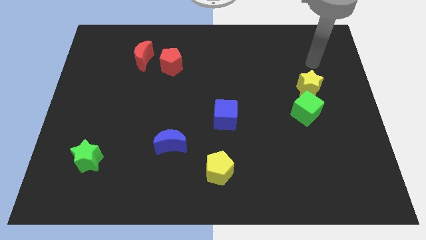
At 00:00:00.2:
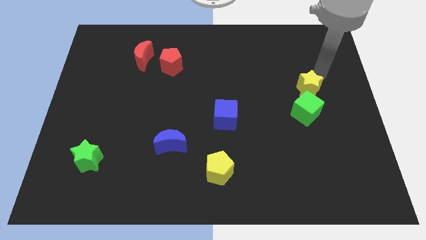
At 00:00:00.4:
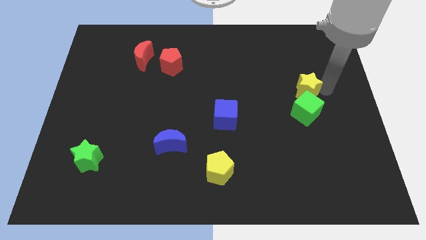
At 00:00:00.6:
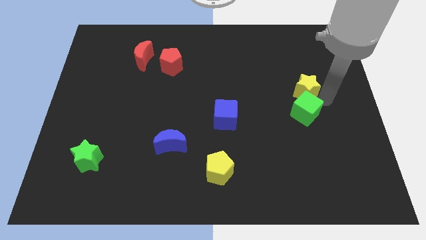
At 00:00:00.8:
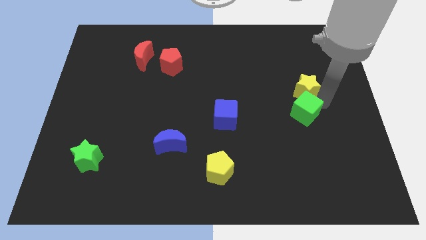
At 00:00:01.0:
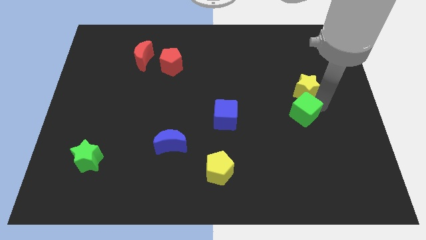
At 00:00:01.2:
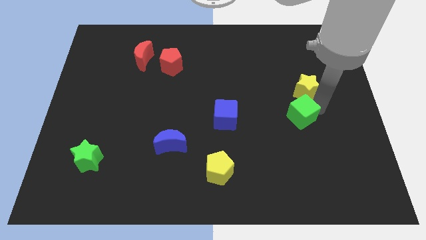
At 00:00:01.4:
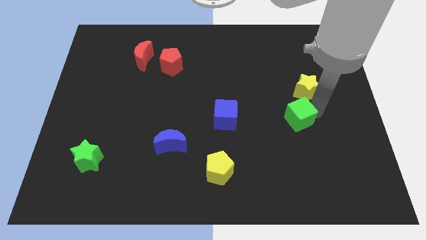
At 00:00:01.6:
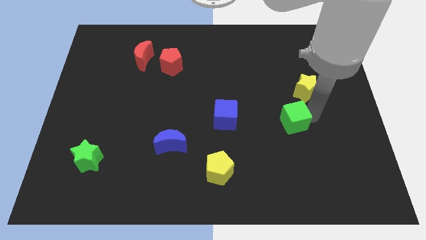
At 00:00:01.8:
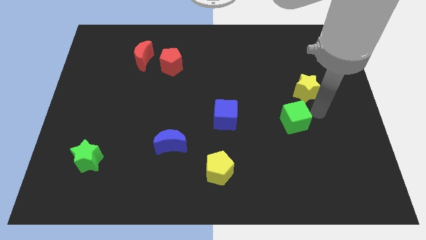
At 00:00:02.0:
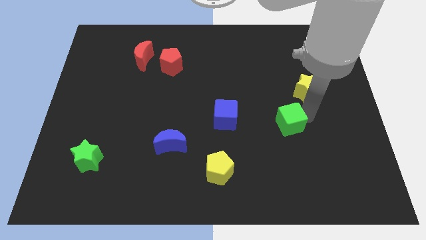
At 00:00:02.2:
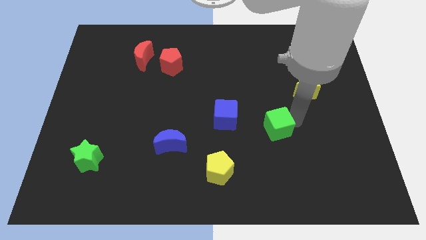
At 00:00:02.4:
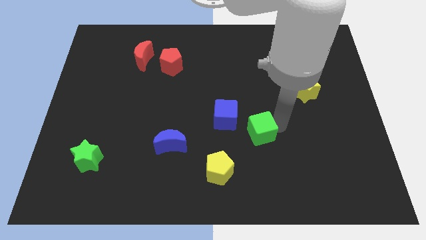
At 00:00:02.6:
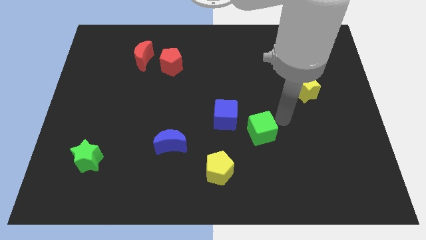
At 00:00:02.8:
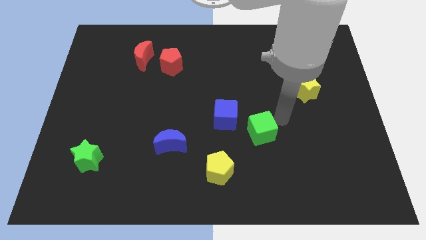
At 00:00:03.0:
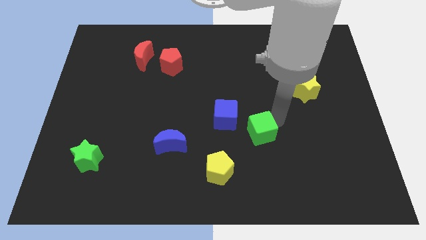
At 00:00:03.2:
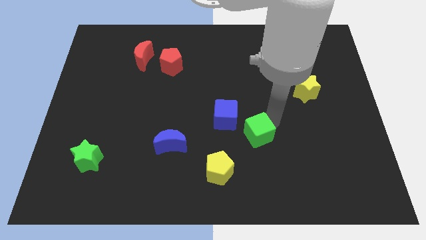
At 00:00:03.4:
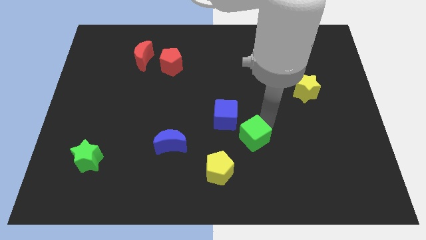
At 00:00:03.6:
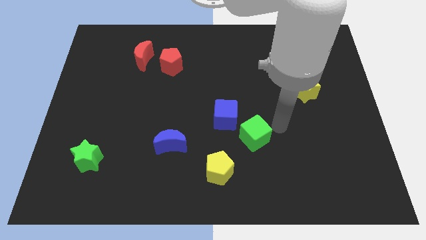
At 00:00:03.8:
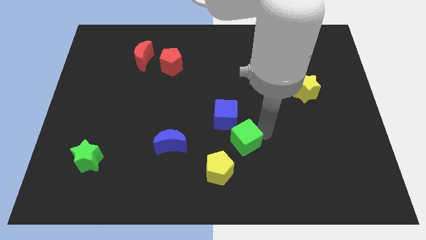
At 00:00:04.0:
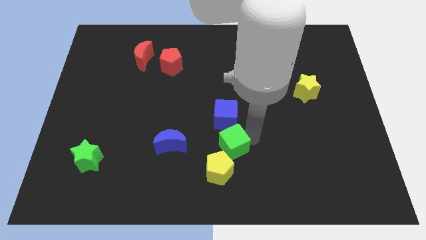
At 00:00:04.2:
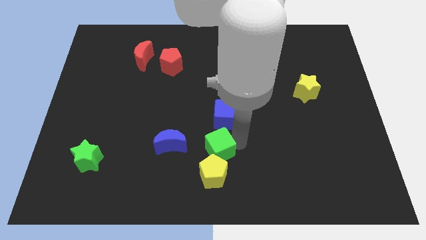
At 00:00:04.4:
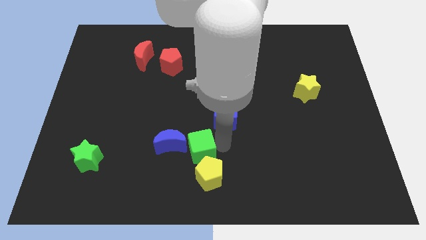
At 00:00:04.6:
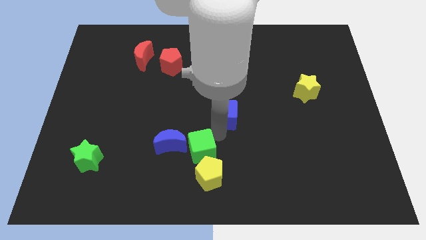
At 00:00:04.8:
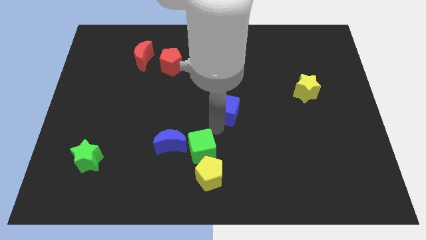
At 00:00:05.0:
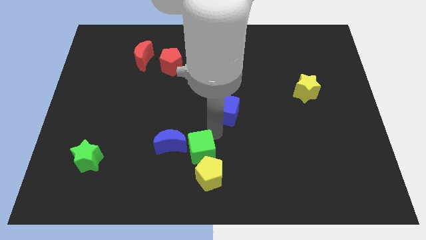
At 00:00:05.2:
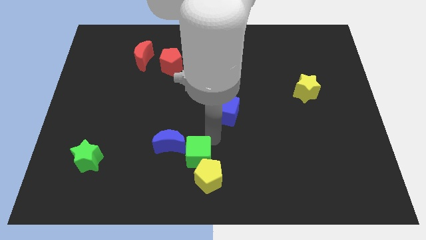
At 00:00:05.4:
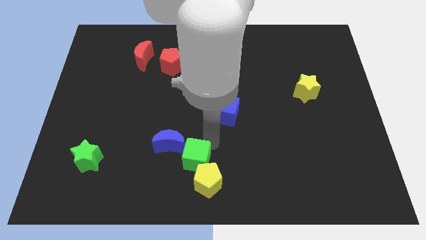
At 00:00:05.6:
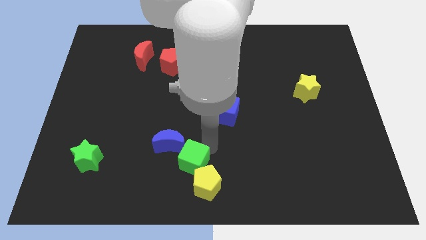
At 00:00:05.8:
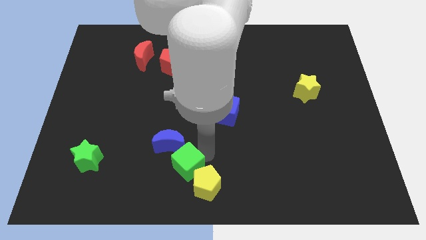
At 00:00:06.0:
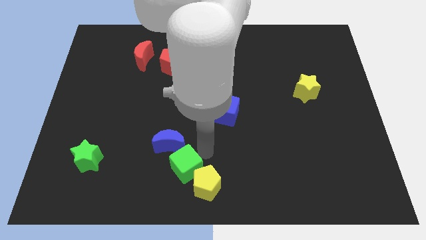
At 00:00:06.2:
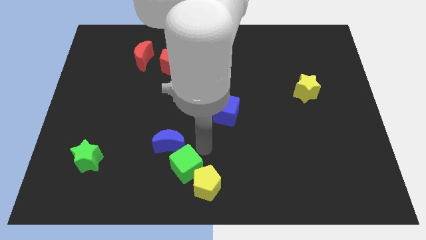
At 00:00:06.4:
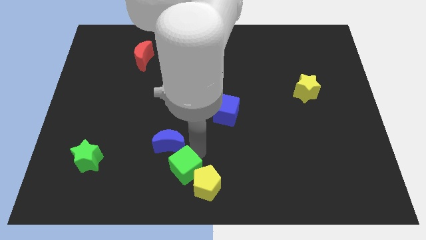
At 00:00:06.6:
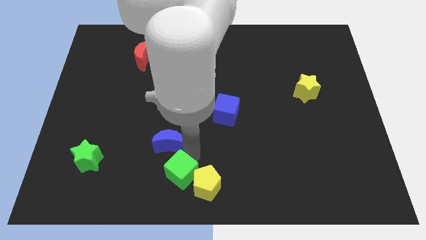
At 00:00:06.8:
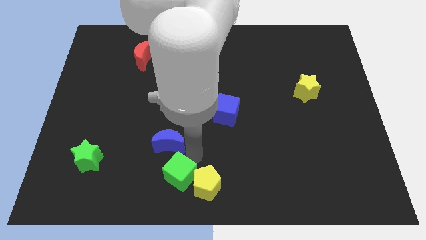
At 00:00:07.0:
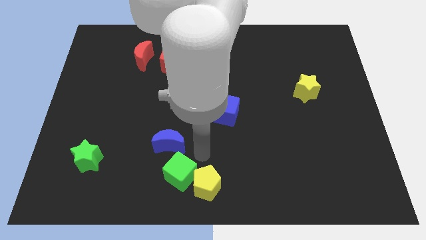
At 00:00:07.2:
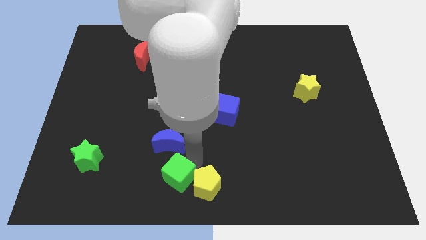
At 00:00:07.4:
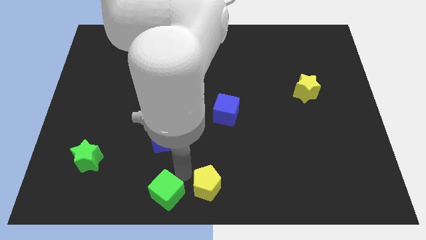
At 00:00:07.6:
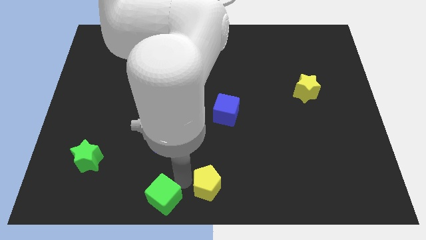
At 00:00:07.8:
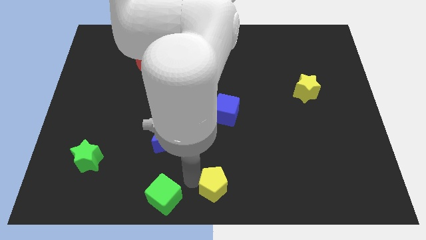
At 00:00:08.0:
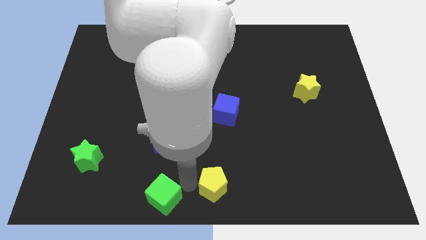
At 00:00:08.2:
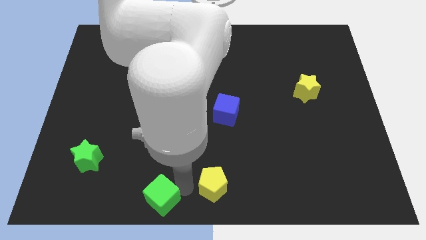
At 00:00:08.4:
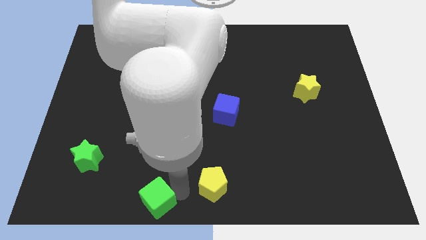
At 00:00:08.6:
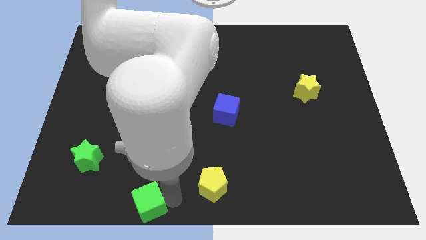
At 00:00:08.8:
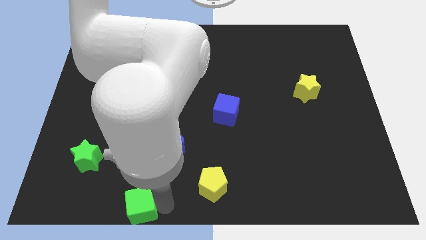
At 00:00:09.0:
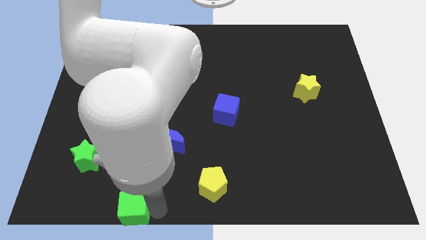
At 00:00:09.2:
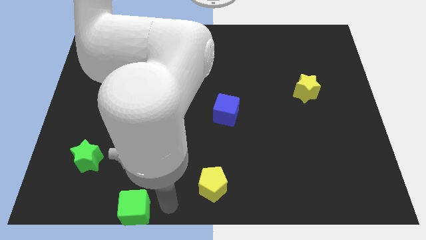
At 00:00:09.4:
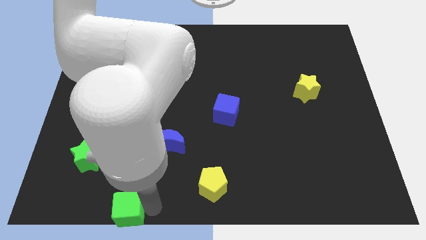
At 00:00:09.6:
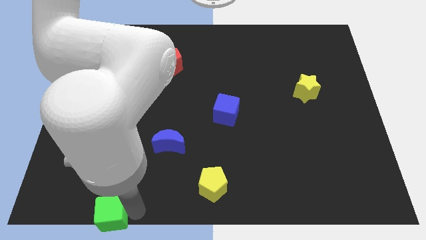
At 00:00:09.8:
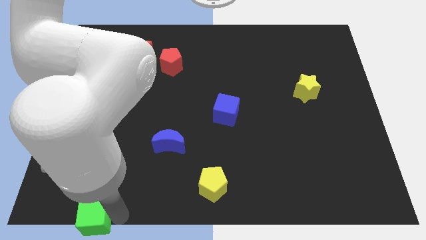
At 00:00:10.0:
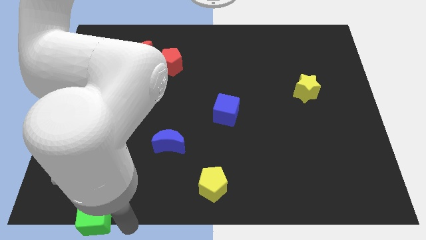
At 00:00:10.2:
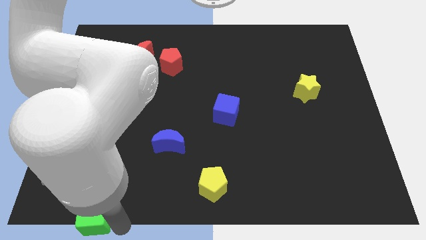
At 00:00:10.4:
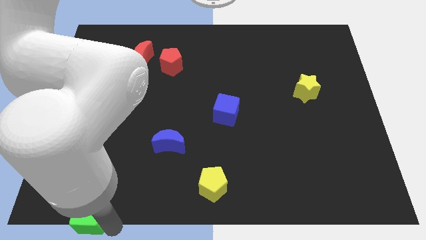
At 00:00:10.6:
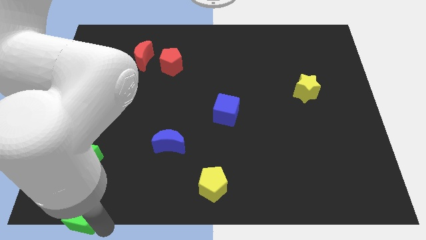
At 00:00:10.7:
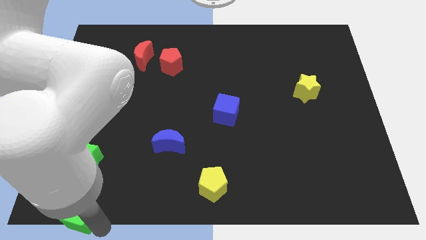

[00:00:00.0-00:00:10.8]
push the green cube to the bottom left

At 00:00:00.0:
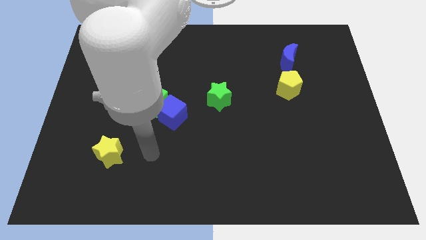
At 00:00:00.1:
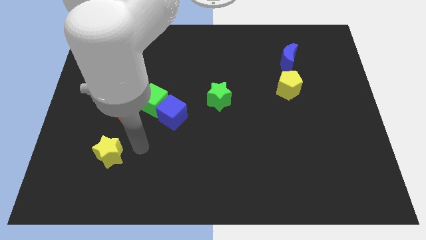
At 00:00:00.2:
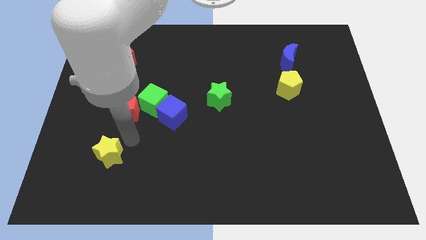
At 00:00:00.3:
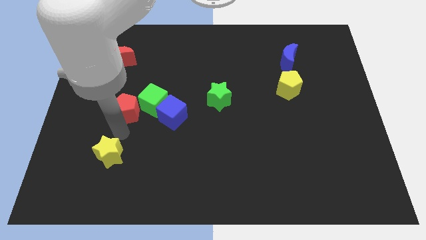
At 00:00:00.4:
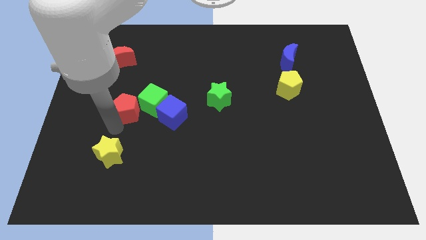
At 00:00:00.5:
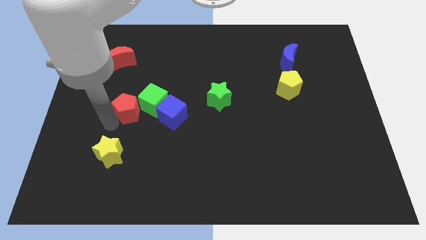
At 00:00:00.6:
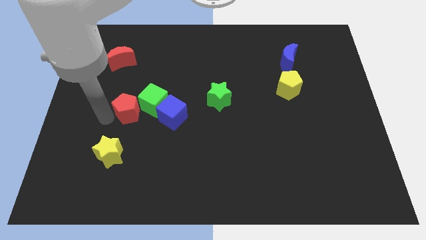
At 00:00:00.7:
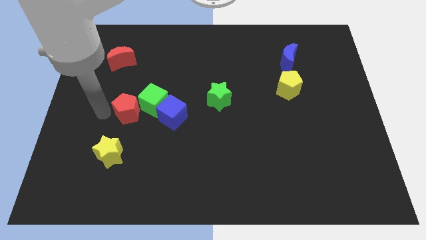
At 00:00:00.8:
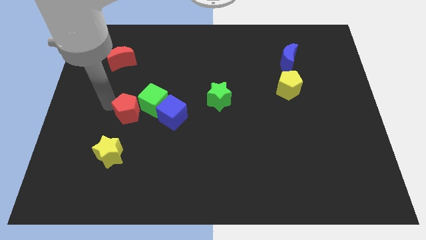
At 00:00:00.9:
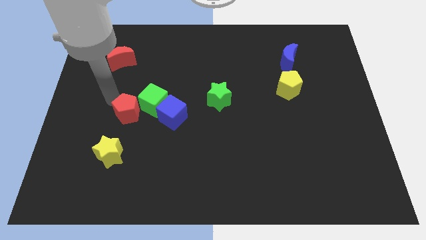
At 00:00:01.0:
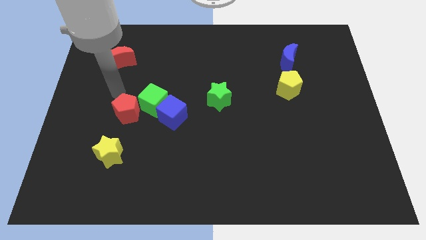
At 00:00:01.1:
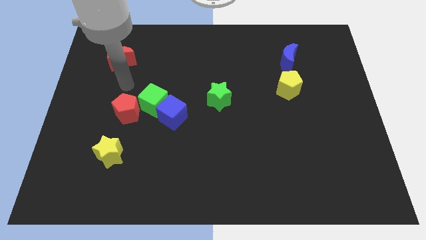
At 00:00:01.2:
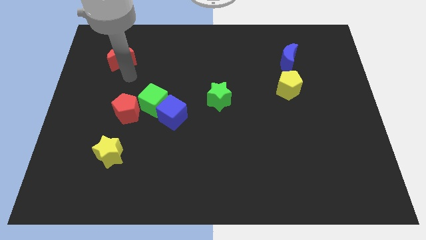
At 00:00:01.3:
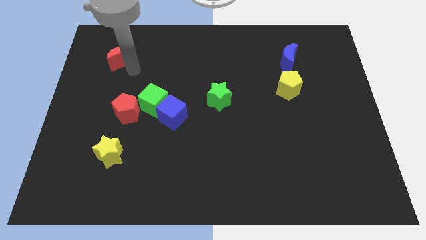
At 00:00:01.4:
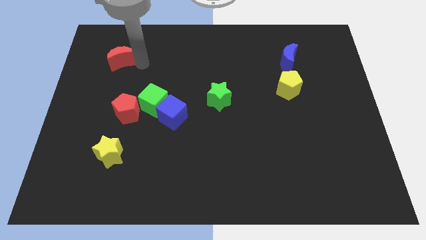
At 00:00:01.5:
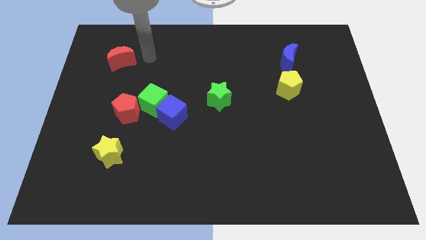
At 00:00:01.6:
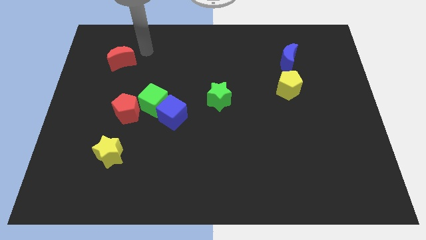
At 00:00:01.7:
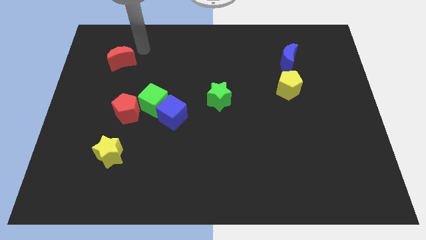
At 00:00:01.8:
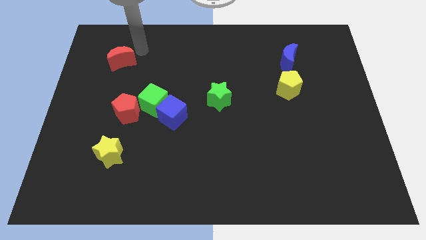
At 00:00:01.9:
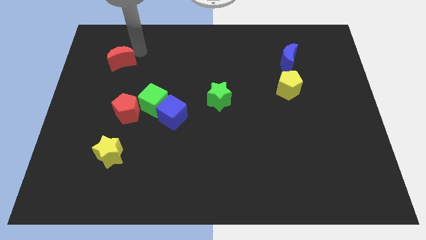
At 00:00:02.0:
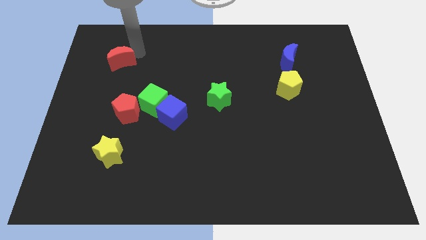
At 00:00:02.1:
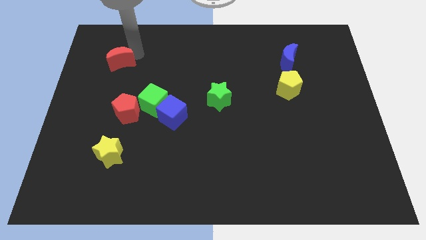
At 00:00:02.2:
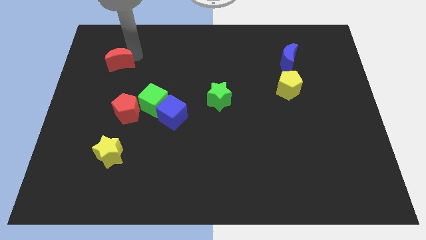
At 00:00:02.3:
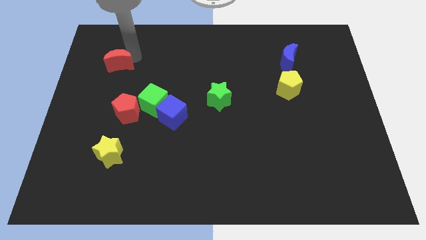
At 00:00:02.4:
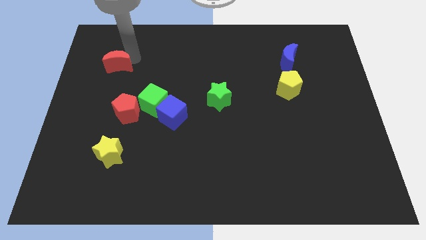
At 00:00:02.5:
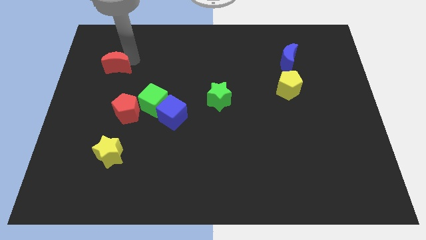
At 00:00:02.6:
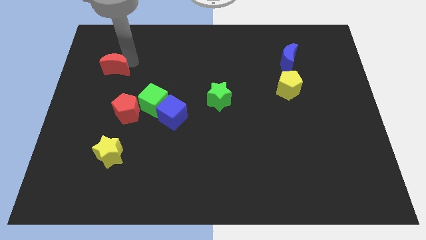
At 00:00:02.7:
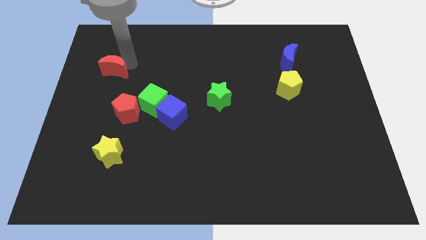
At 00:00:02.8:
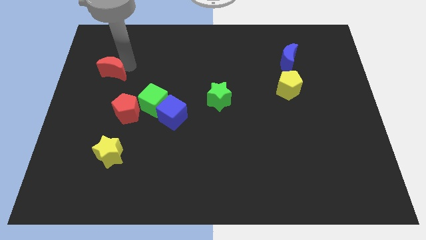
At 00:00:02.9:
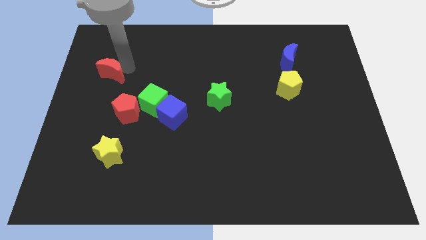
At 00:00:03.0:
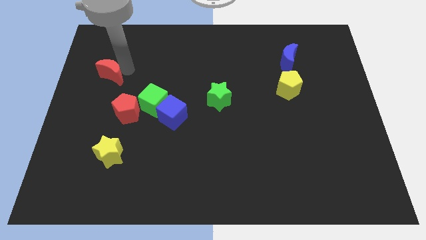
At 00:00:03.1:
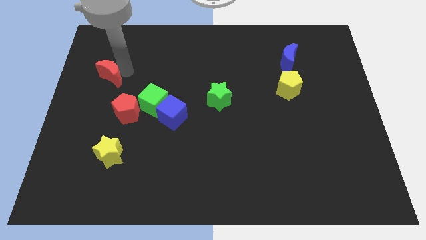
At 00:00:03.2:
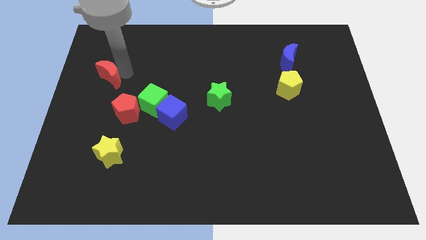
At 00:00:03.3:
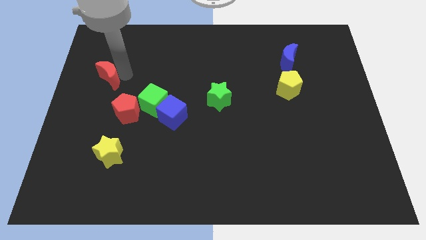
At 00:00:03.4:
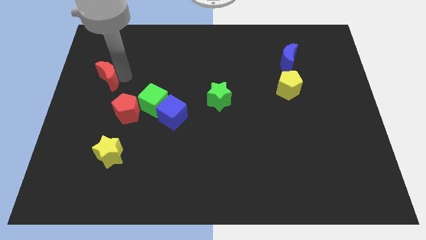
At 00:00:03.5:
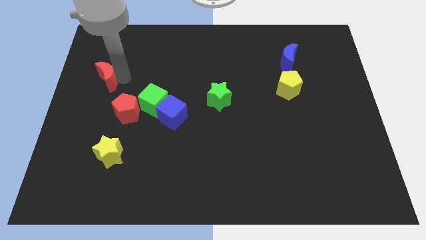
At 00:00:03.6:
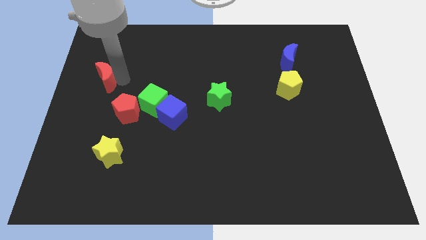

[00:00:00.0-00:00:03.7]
slide the red moon to the center left
